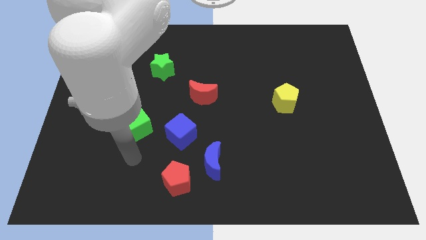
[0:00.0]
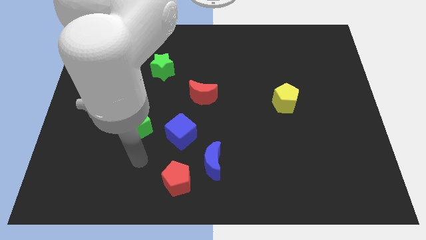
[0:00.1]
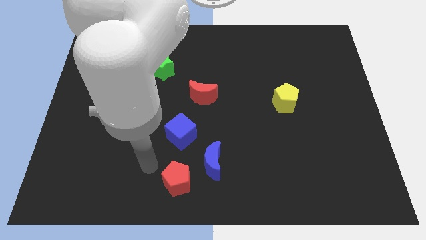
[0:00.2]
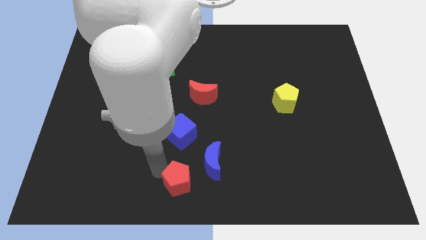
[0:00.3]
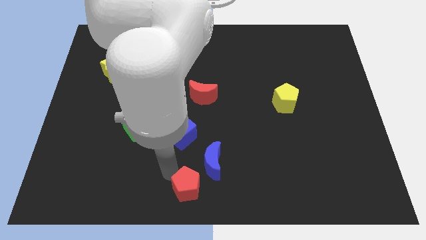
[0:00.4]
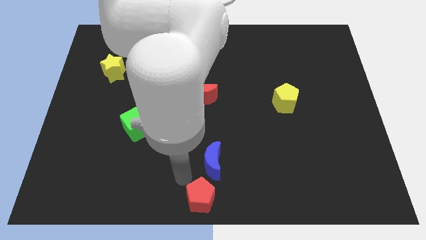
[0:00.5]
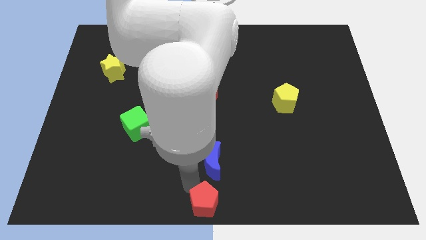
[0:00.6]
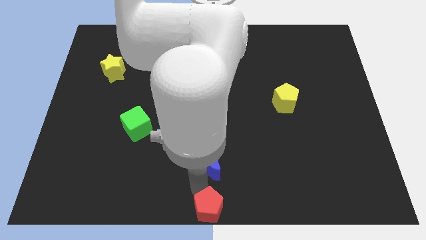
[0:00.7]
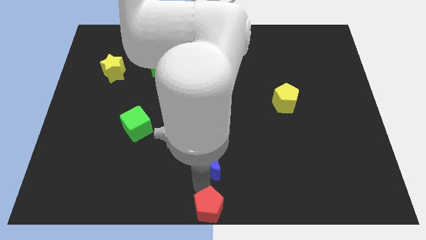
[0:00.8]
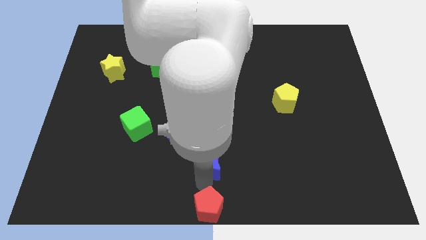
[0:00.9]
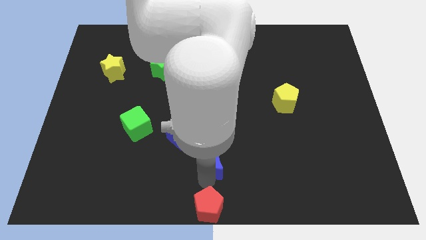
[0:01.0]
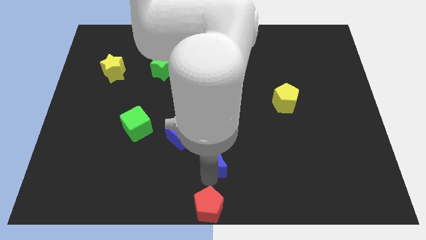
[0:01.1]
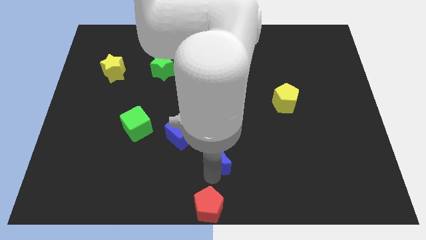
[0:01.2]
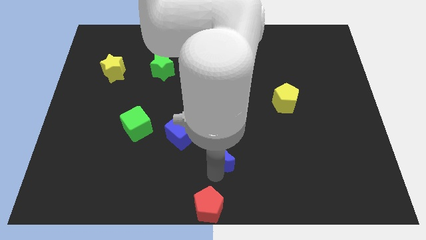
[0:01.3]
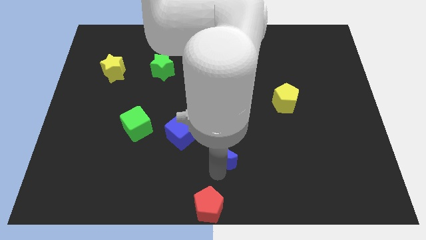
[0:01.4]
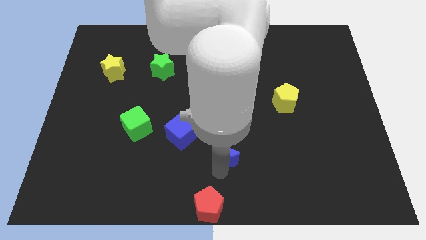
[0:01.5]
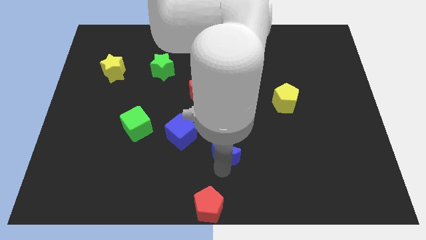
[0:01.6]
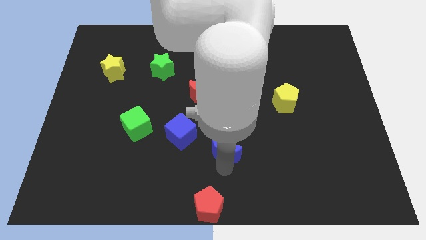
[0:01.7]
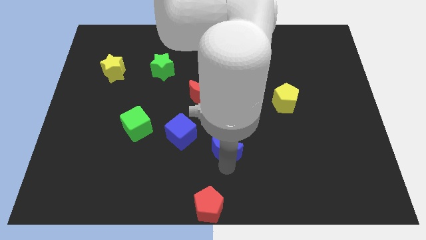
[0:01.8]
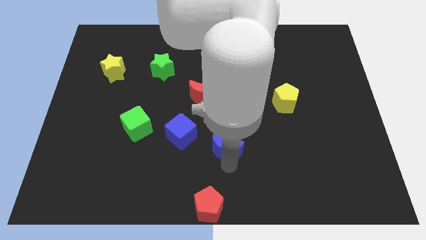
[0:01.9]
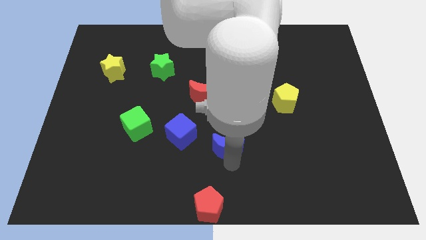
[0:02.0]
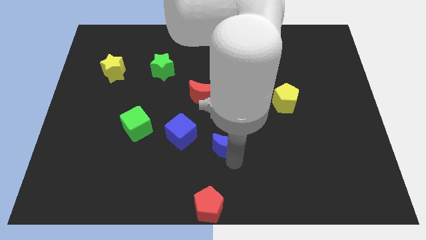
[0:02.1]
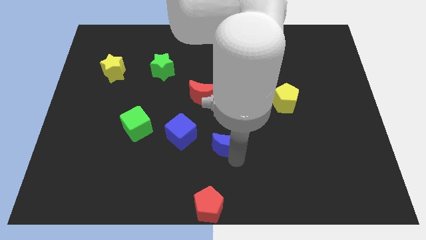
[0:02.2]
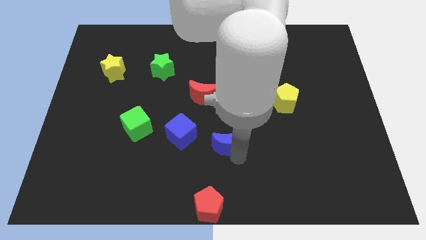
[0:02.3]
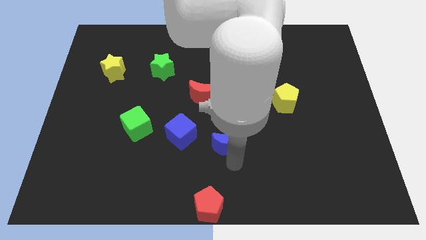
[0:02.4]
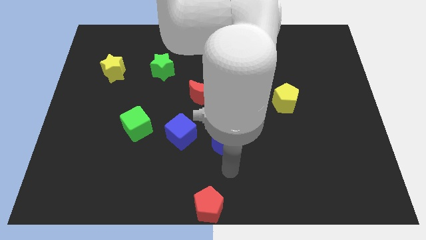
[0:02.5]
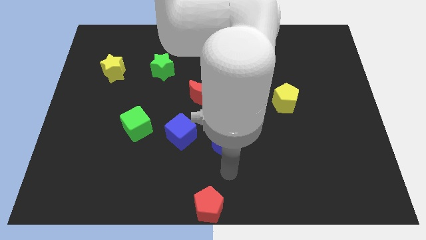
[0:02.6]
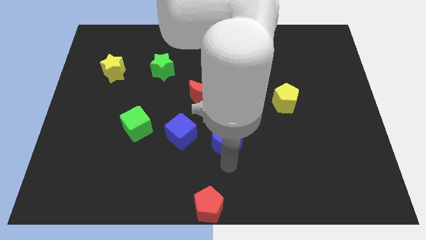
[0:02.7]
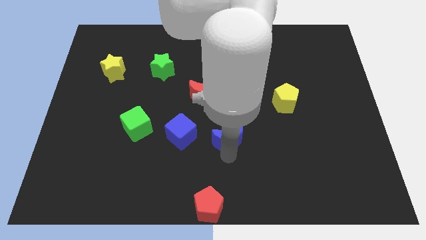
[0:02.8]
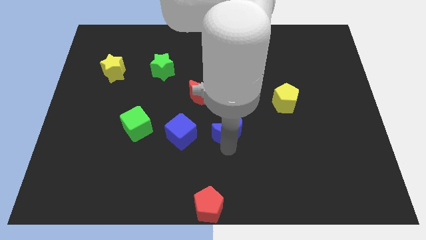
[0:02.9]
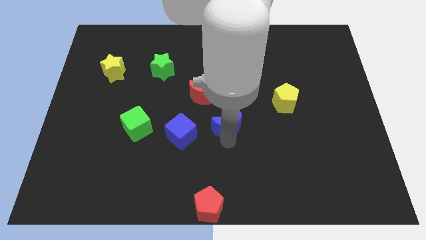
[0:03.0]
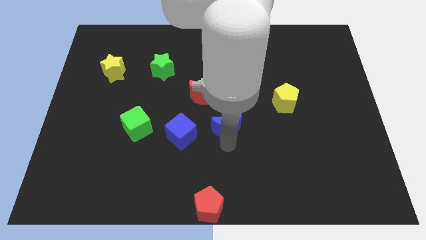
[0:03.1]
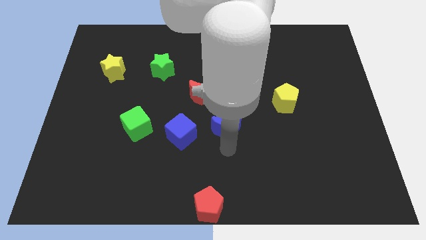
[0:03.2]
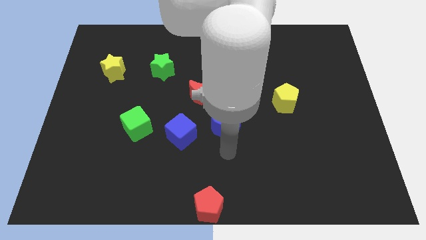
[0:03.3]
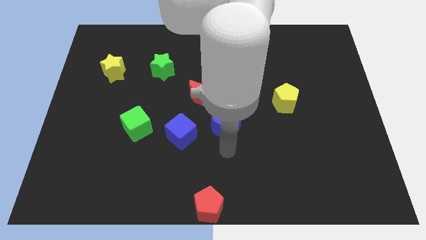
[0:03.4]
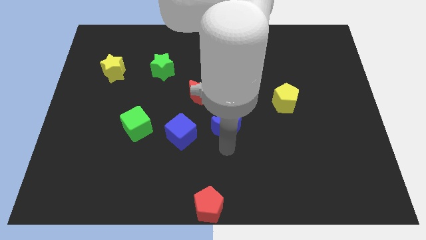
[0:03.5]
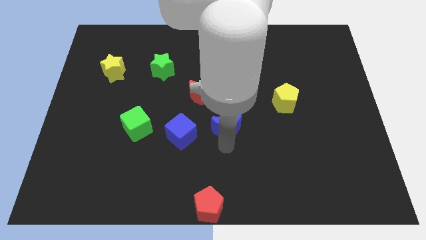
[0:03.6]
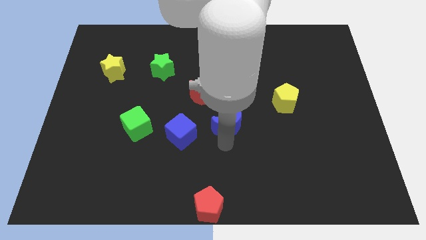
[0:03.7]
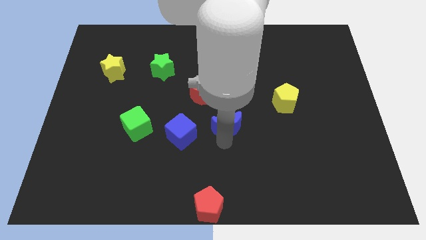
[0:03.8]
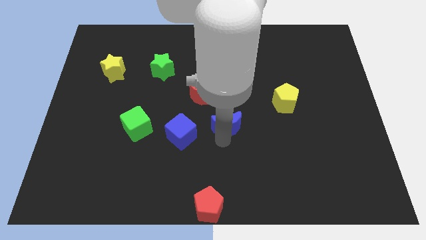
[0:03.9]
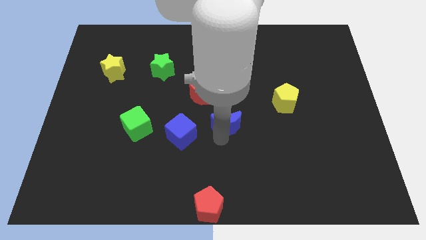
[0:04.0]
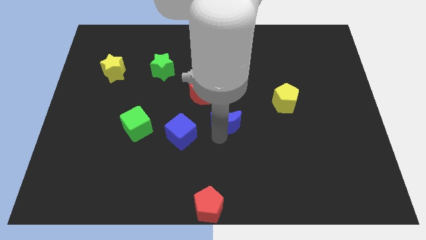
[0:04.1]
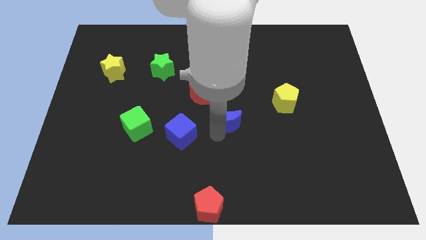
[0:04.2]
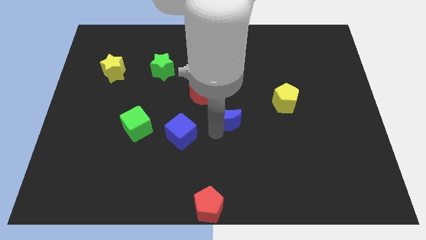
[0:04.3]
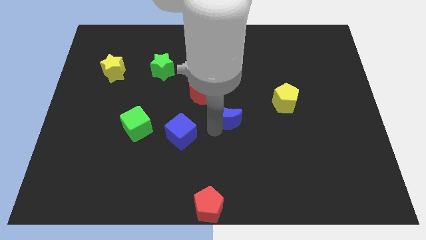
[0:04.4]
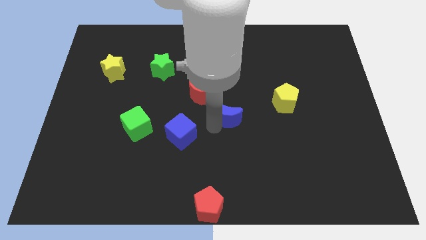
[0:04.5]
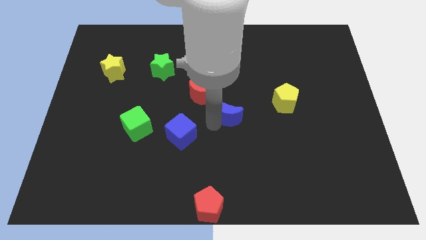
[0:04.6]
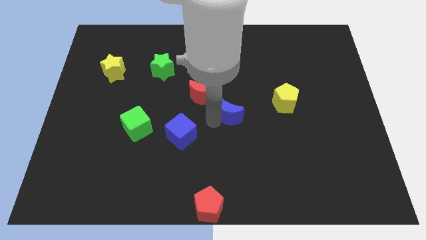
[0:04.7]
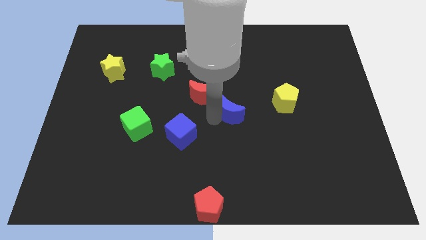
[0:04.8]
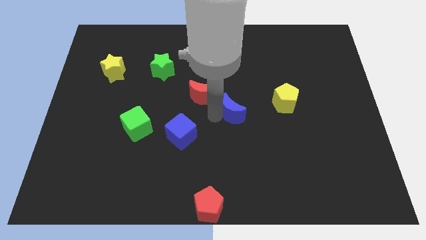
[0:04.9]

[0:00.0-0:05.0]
put the blue moon right of the red moon

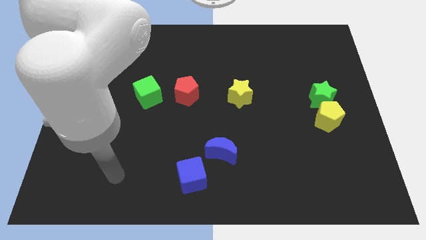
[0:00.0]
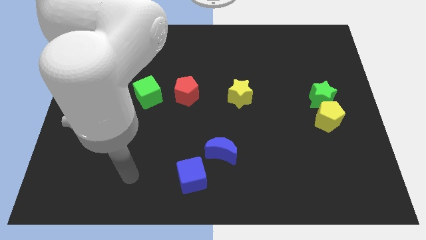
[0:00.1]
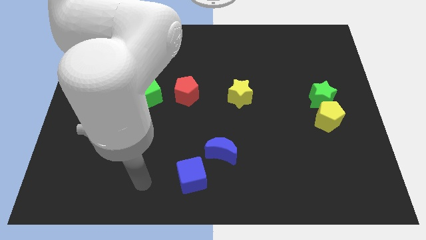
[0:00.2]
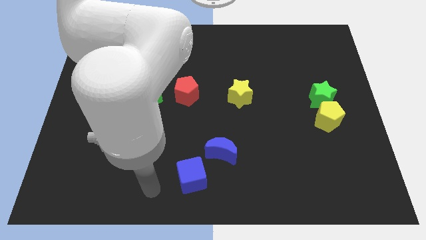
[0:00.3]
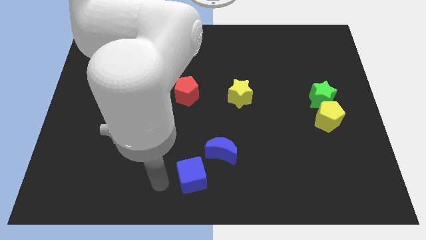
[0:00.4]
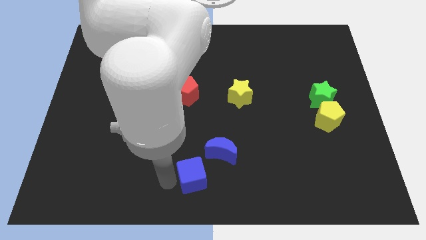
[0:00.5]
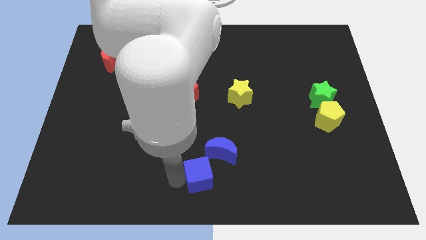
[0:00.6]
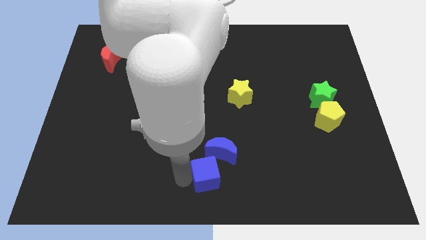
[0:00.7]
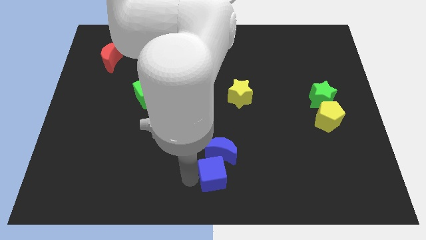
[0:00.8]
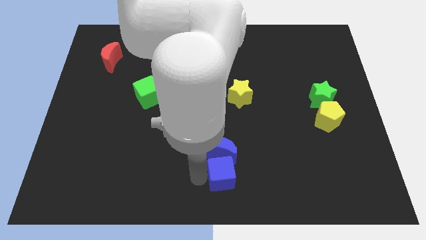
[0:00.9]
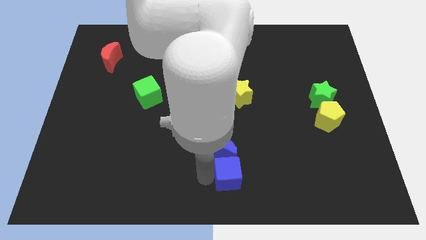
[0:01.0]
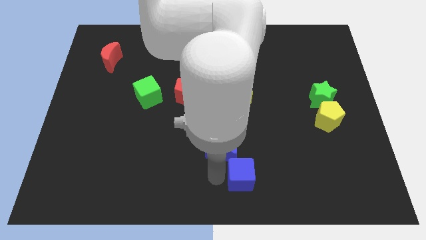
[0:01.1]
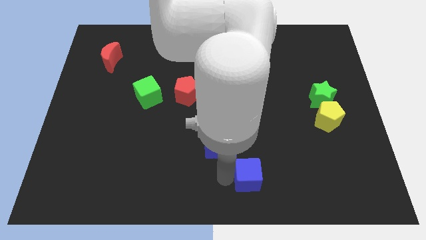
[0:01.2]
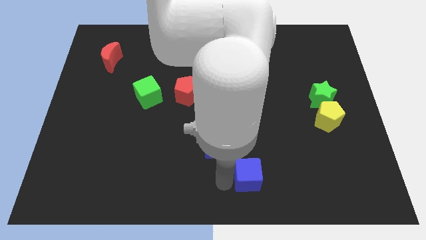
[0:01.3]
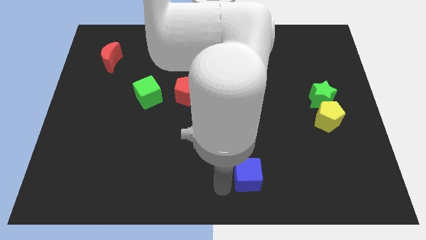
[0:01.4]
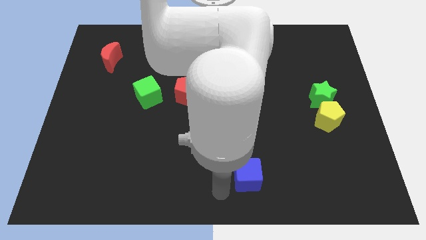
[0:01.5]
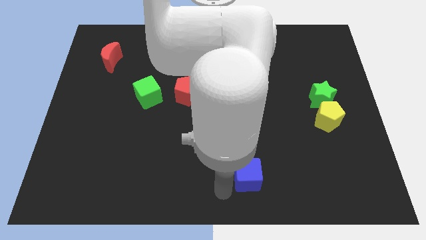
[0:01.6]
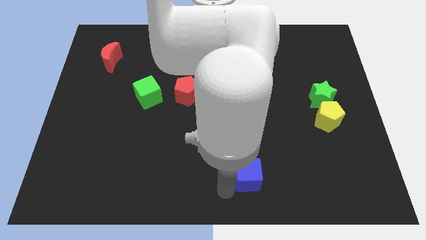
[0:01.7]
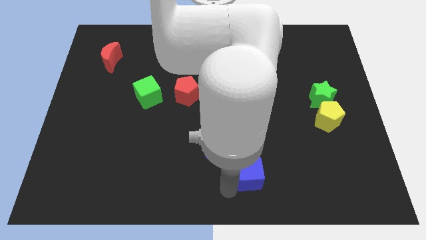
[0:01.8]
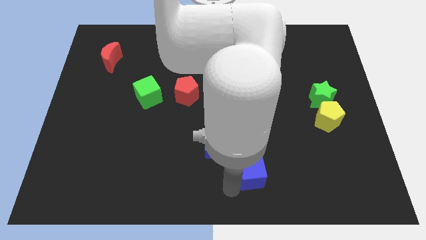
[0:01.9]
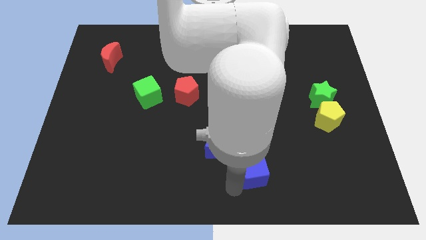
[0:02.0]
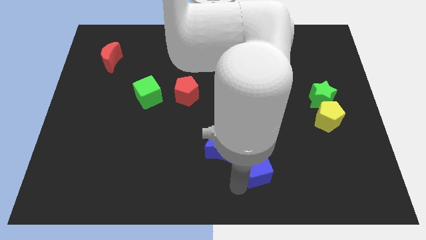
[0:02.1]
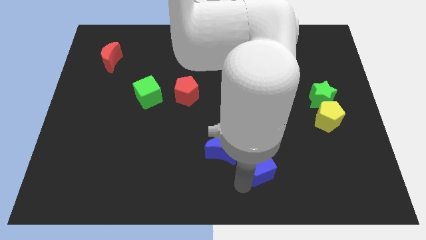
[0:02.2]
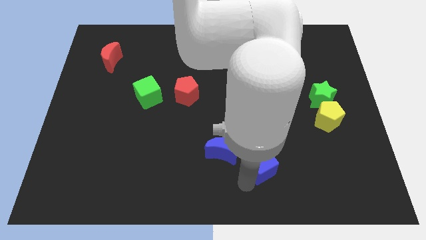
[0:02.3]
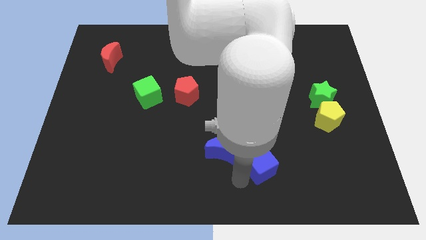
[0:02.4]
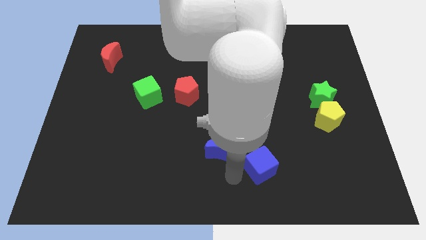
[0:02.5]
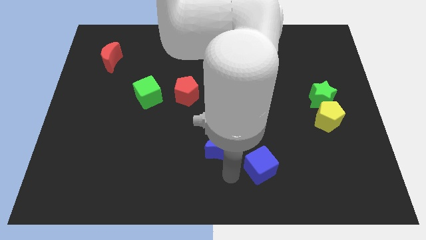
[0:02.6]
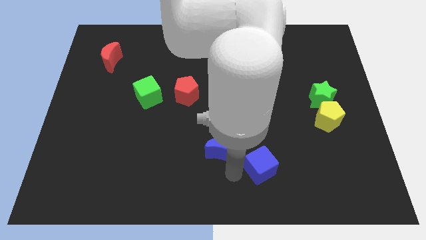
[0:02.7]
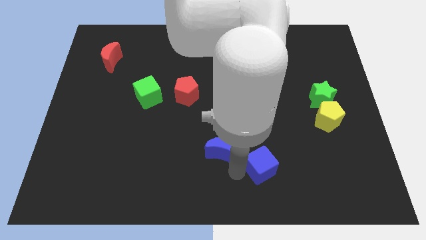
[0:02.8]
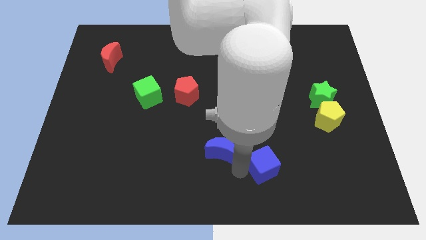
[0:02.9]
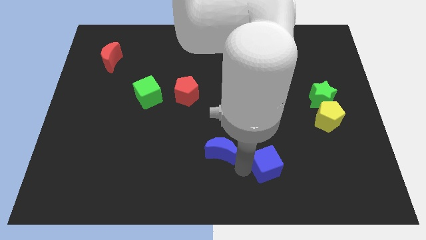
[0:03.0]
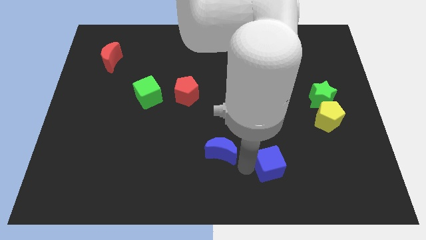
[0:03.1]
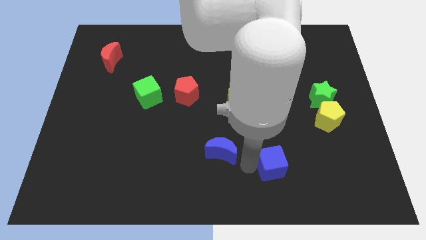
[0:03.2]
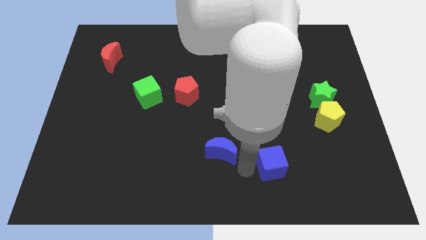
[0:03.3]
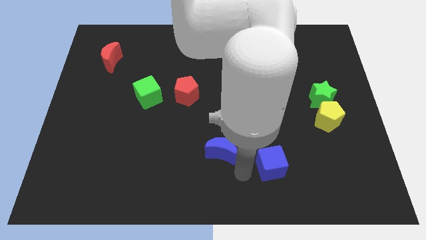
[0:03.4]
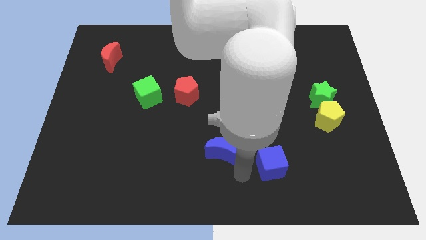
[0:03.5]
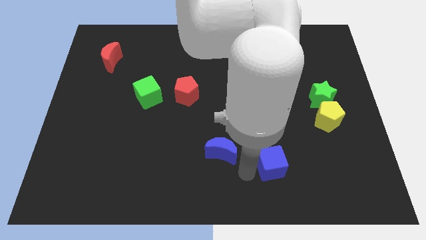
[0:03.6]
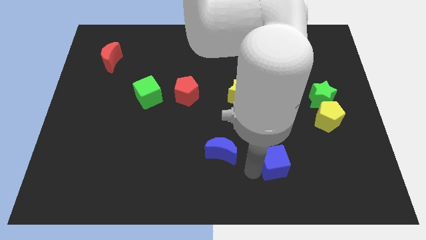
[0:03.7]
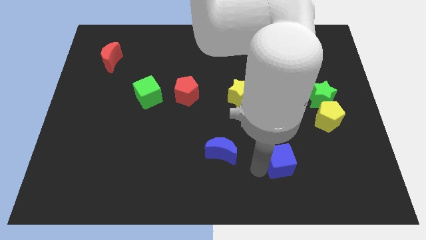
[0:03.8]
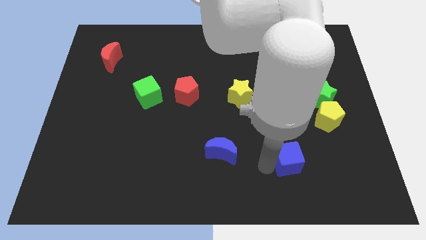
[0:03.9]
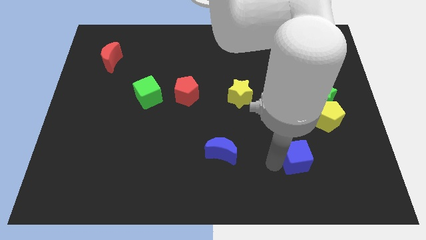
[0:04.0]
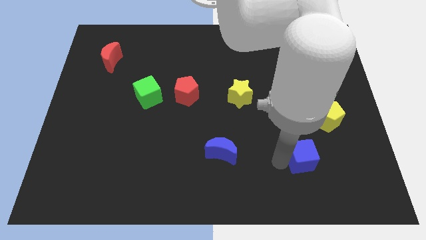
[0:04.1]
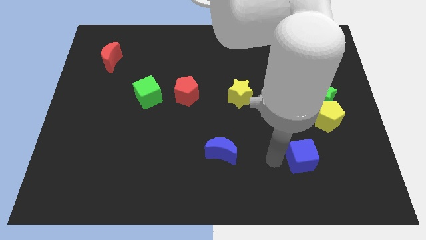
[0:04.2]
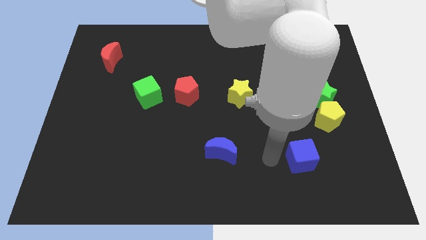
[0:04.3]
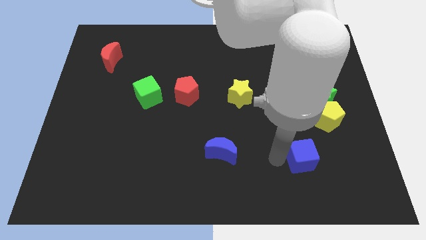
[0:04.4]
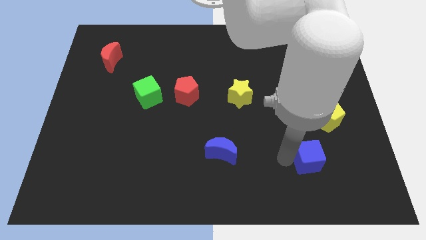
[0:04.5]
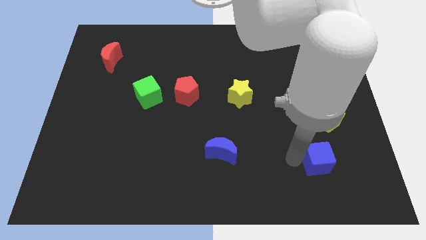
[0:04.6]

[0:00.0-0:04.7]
push the blue cube to the bottom of the yellow pentagon
